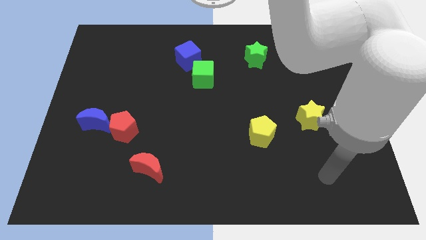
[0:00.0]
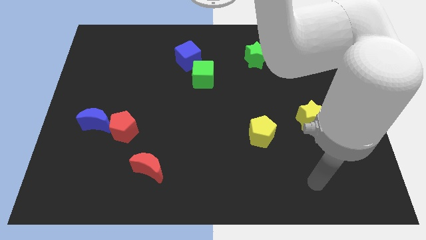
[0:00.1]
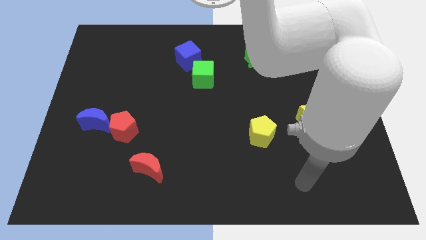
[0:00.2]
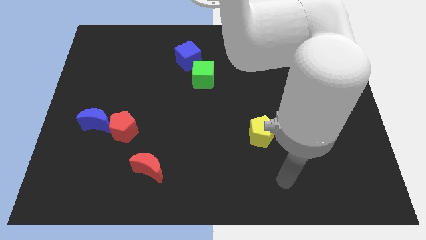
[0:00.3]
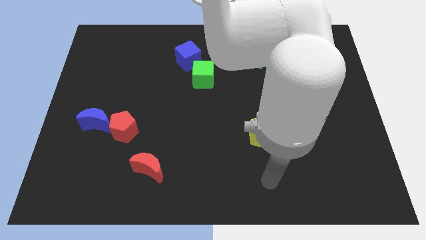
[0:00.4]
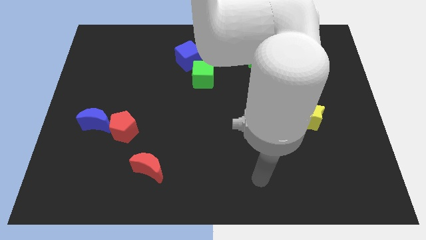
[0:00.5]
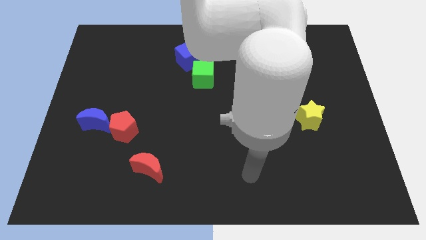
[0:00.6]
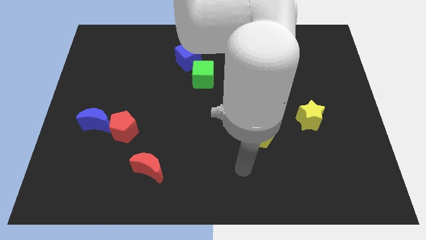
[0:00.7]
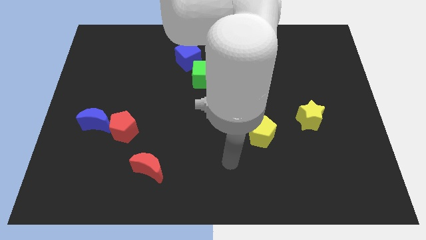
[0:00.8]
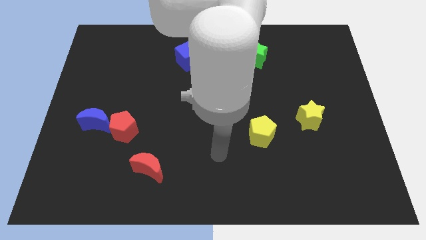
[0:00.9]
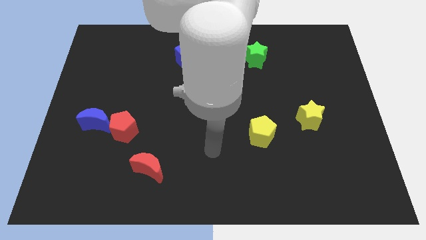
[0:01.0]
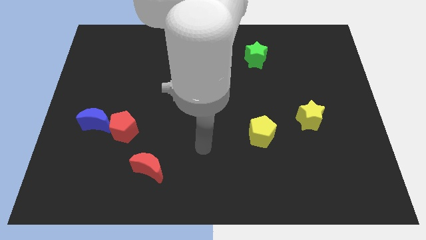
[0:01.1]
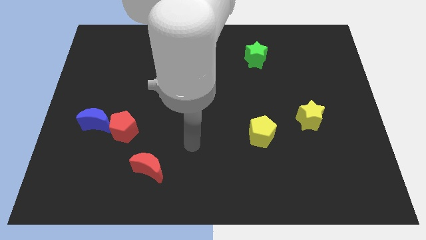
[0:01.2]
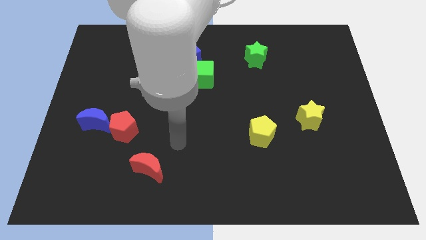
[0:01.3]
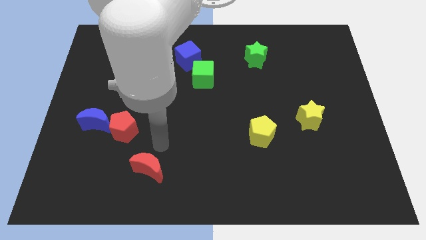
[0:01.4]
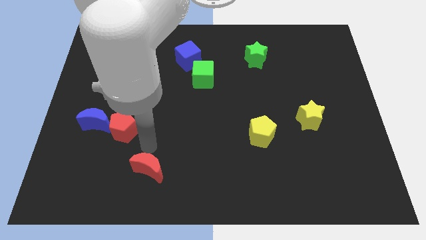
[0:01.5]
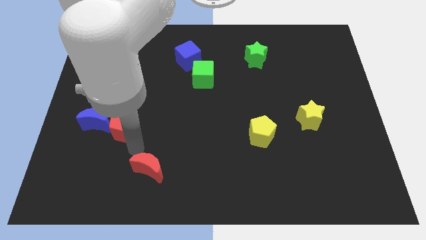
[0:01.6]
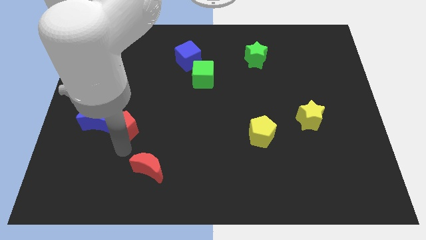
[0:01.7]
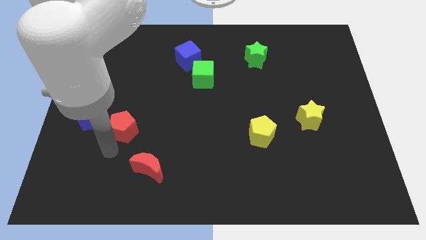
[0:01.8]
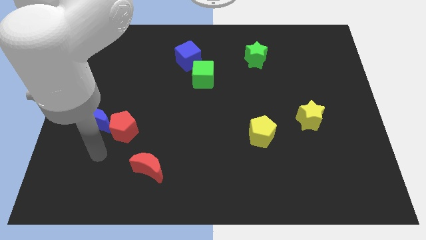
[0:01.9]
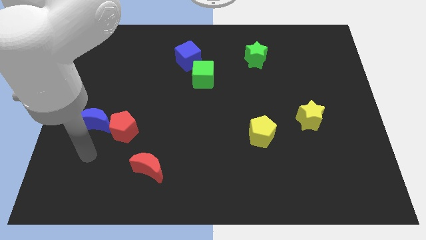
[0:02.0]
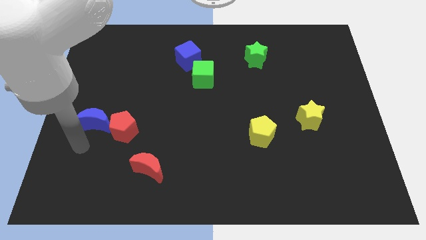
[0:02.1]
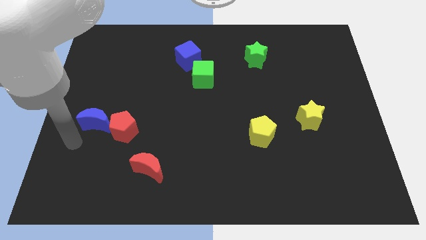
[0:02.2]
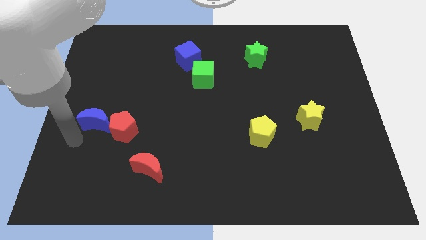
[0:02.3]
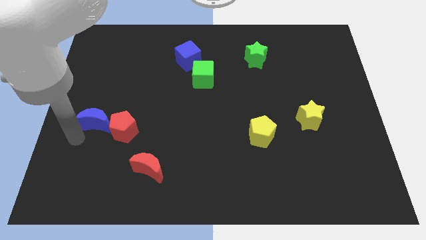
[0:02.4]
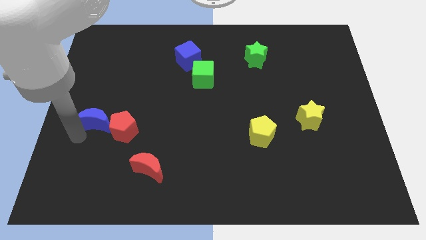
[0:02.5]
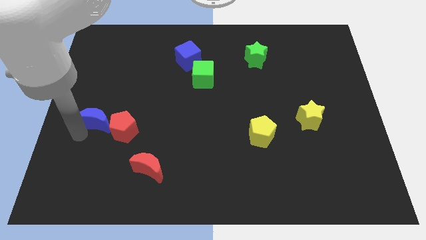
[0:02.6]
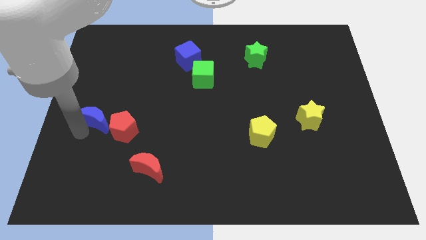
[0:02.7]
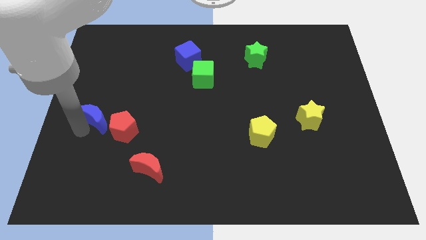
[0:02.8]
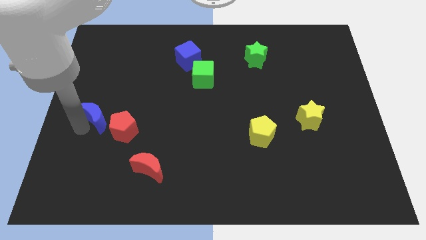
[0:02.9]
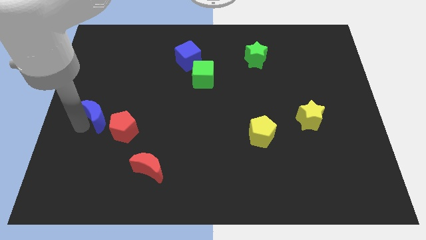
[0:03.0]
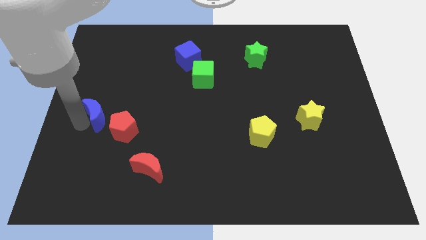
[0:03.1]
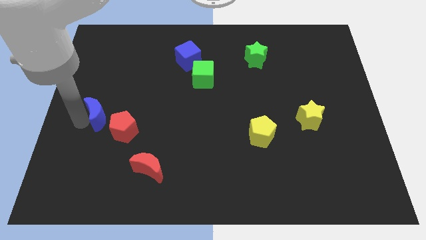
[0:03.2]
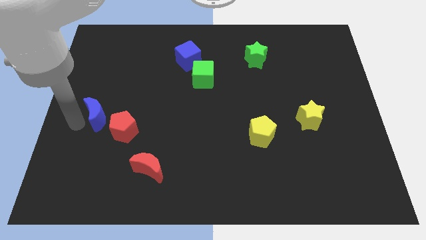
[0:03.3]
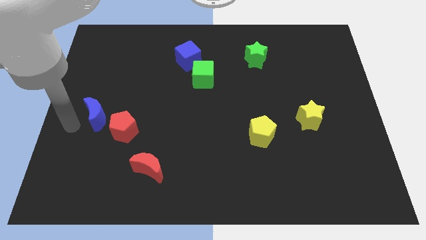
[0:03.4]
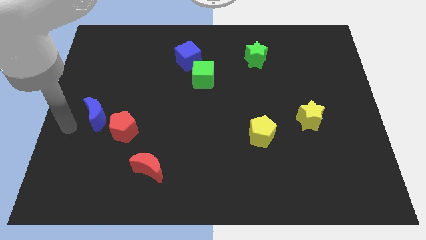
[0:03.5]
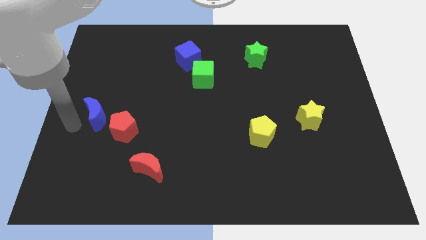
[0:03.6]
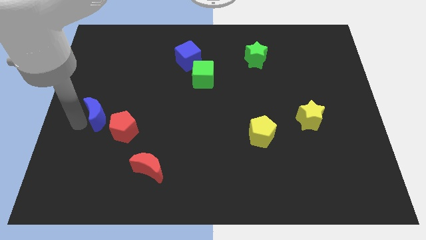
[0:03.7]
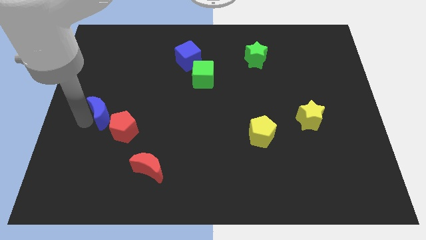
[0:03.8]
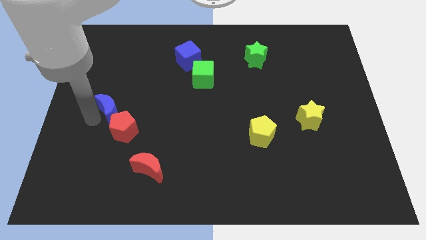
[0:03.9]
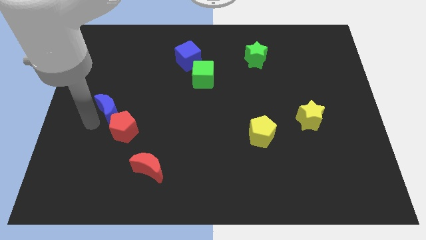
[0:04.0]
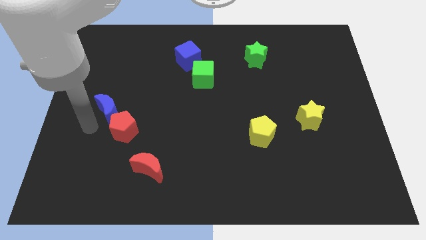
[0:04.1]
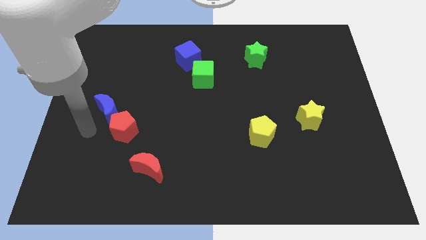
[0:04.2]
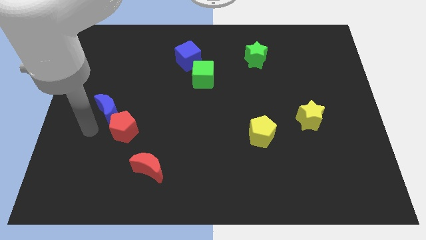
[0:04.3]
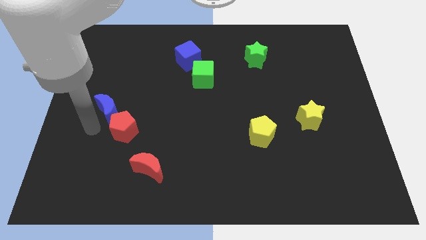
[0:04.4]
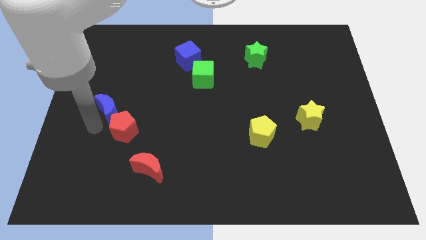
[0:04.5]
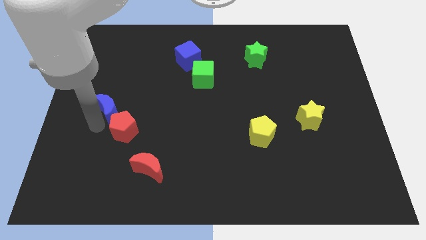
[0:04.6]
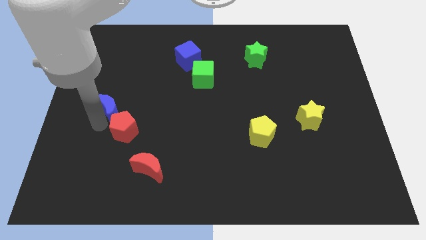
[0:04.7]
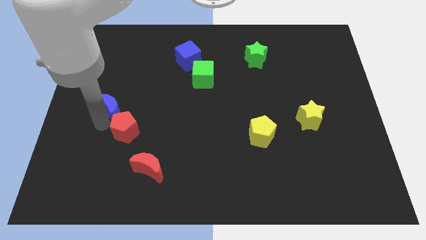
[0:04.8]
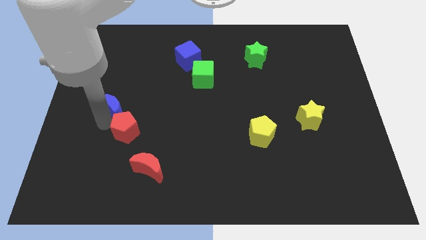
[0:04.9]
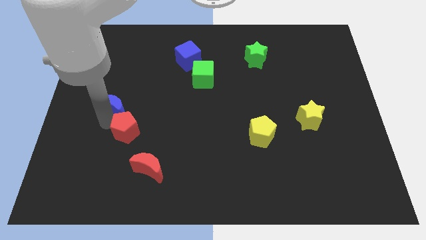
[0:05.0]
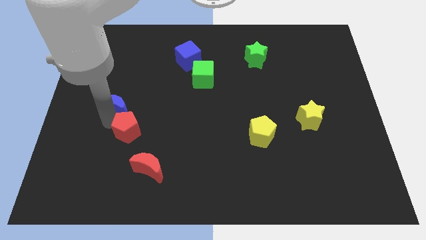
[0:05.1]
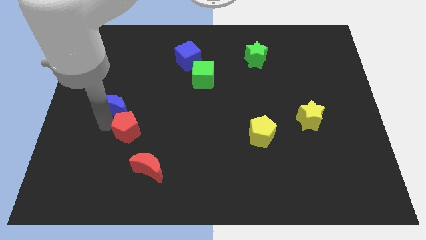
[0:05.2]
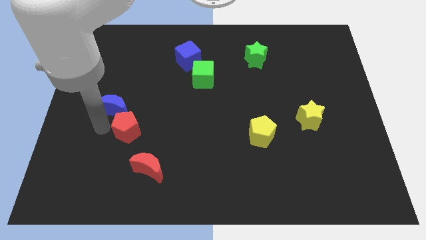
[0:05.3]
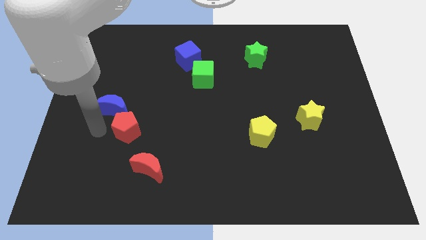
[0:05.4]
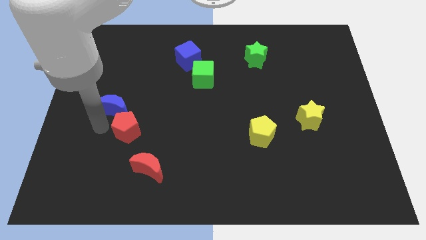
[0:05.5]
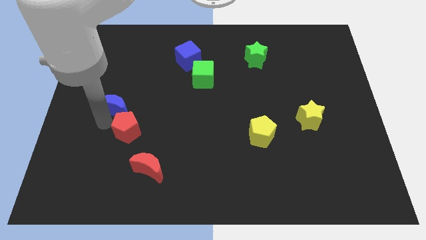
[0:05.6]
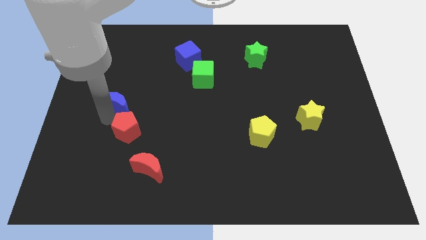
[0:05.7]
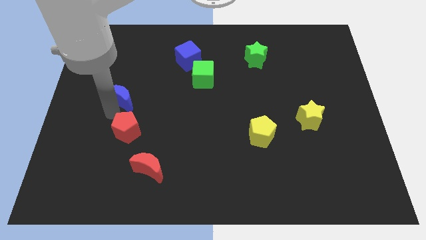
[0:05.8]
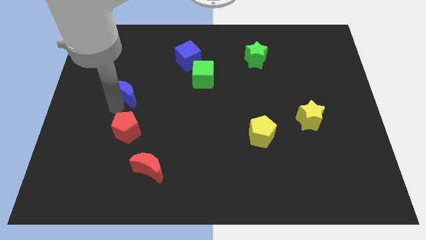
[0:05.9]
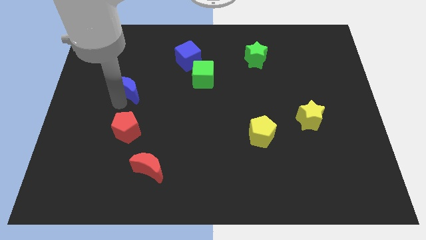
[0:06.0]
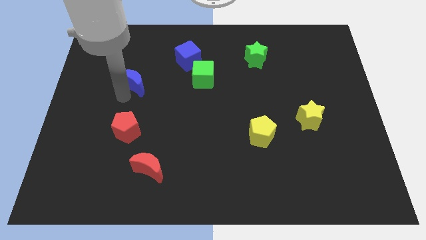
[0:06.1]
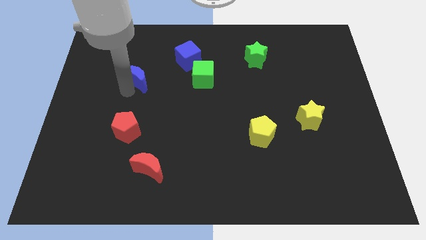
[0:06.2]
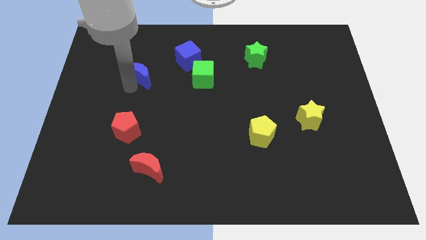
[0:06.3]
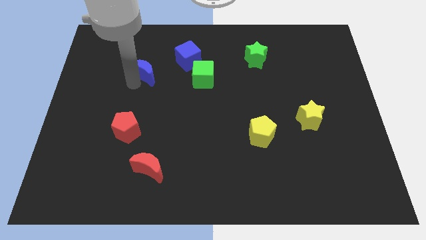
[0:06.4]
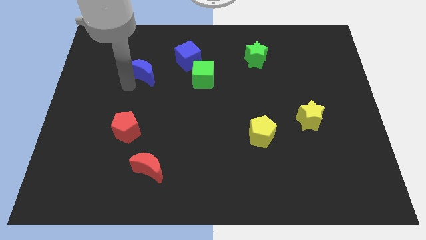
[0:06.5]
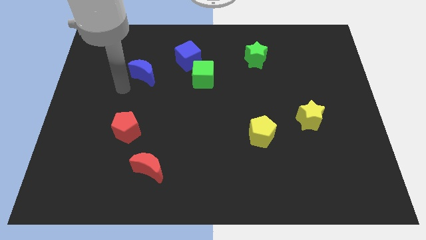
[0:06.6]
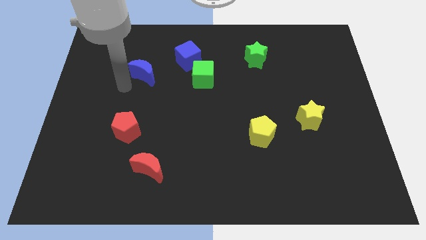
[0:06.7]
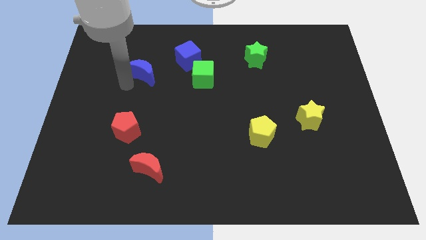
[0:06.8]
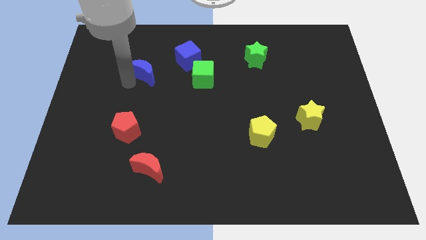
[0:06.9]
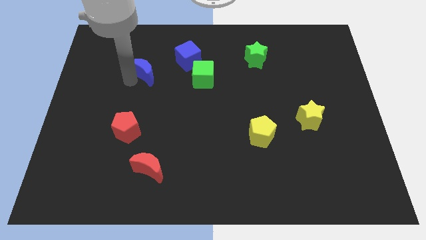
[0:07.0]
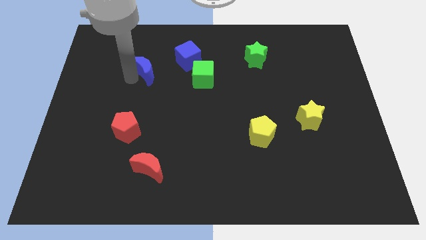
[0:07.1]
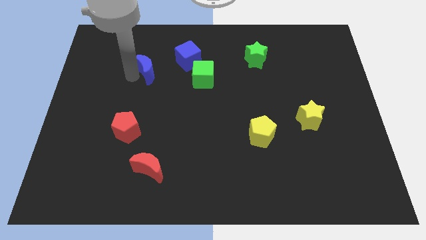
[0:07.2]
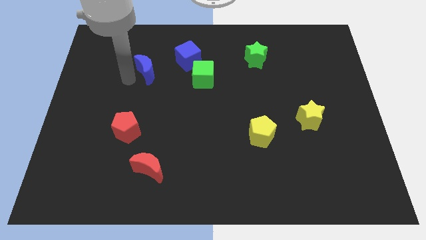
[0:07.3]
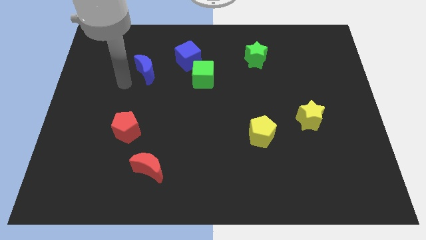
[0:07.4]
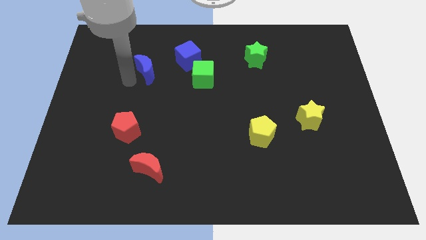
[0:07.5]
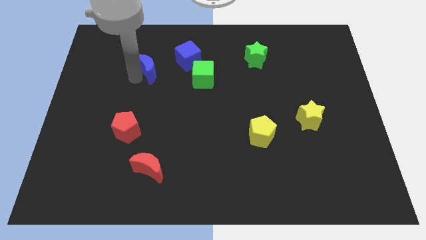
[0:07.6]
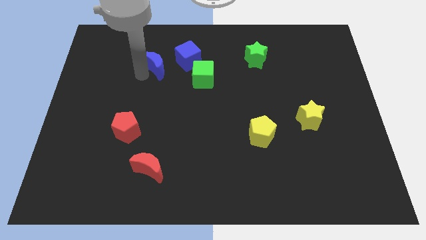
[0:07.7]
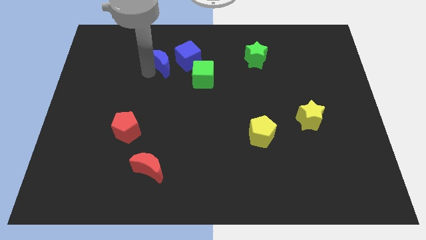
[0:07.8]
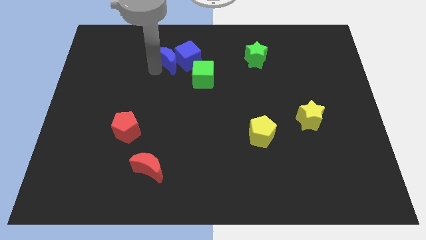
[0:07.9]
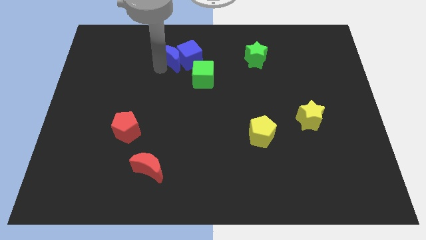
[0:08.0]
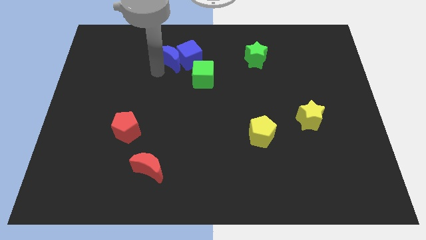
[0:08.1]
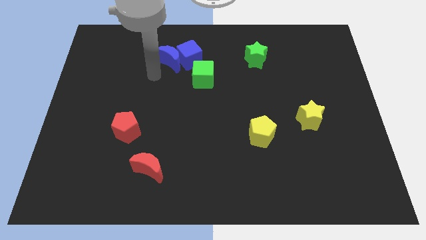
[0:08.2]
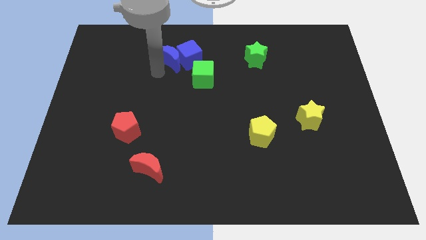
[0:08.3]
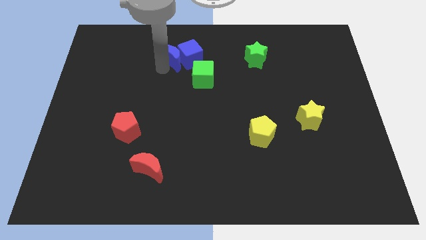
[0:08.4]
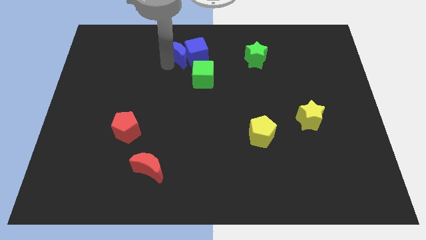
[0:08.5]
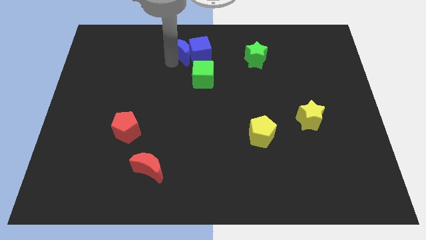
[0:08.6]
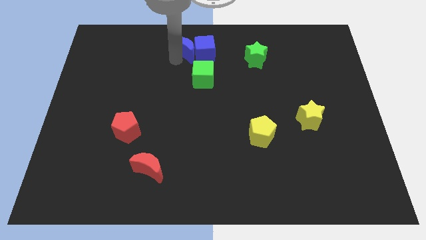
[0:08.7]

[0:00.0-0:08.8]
move the blue moon to the towards your base
